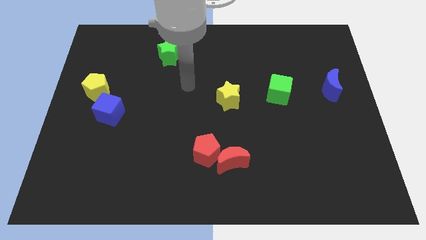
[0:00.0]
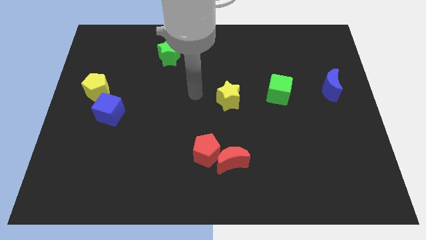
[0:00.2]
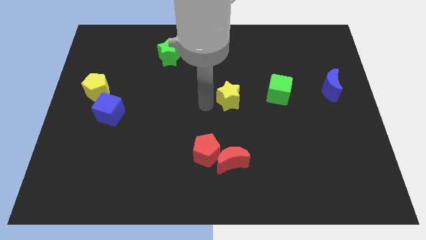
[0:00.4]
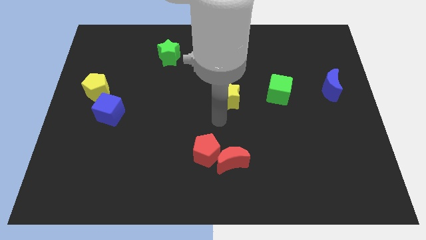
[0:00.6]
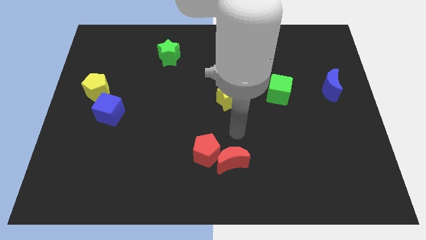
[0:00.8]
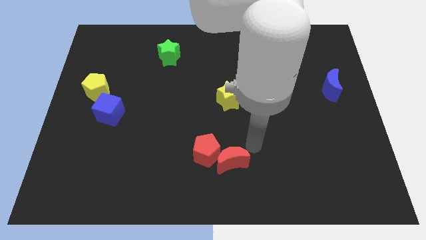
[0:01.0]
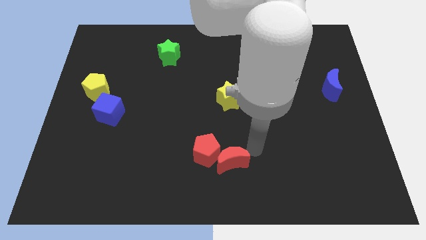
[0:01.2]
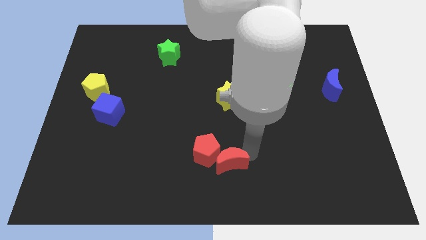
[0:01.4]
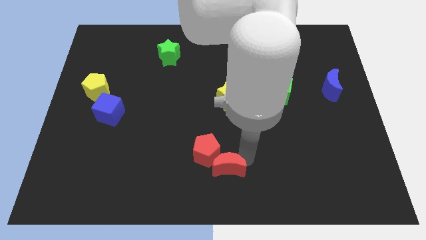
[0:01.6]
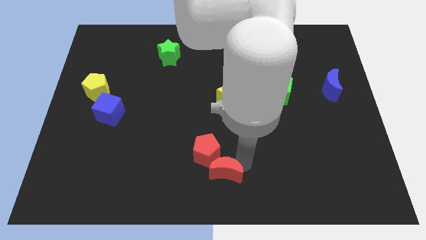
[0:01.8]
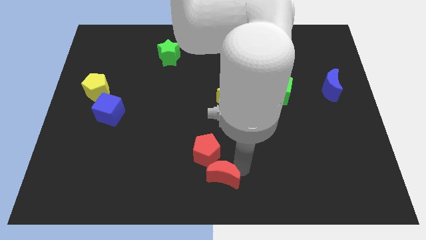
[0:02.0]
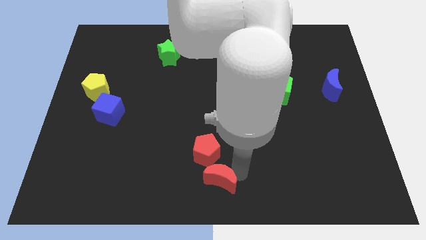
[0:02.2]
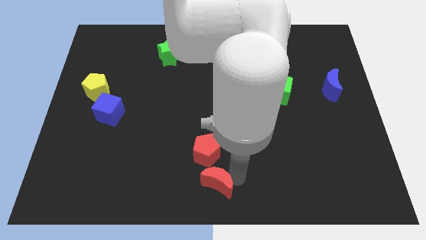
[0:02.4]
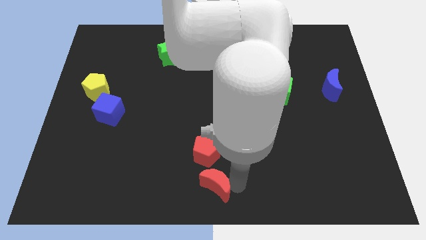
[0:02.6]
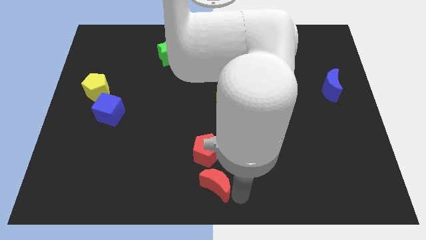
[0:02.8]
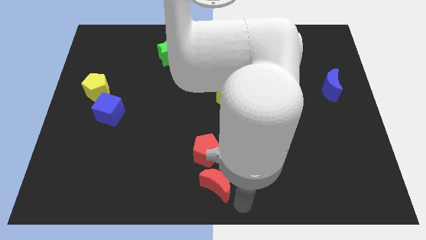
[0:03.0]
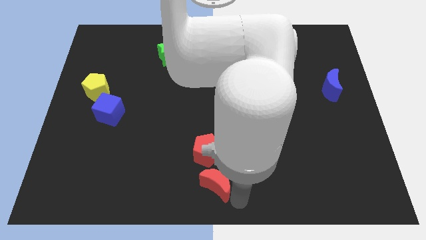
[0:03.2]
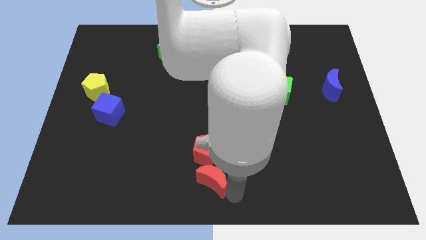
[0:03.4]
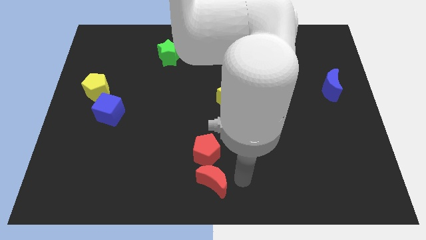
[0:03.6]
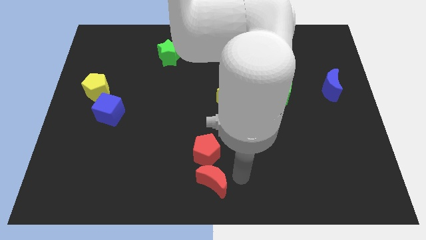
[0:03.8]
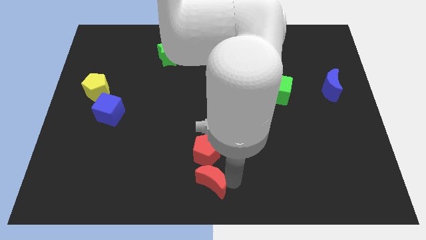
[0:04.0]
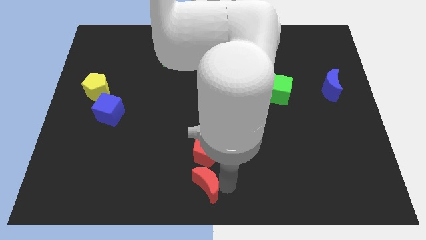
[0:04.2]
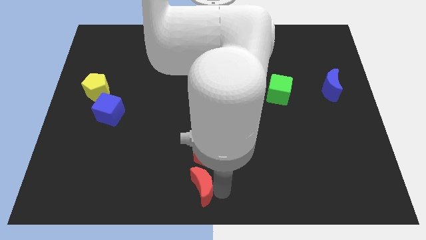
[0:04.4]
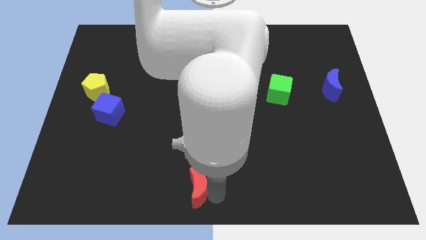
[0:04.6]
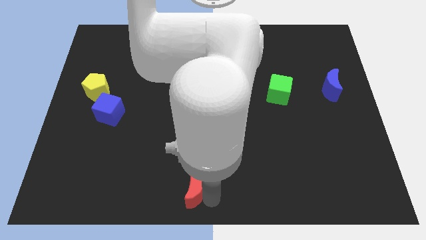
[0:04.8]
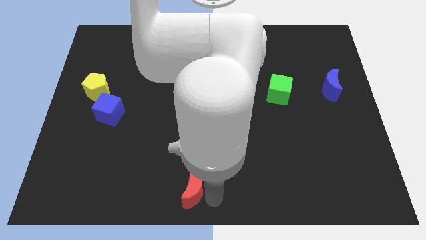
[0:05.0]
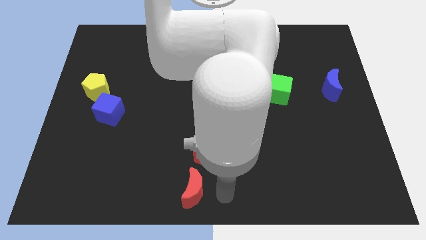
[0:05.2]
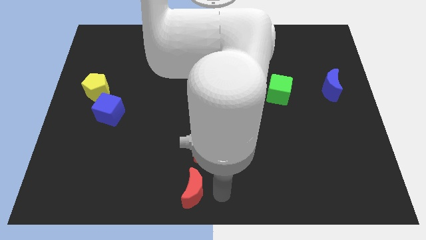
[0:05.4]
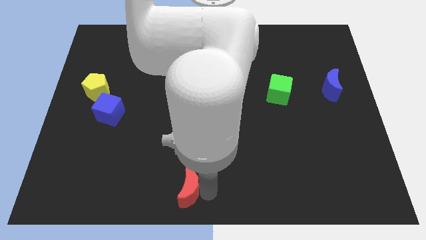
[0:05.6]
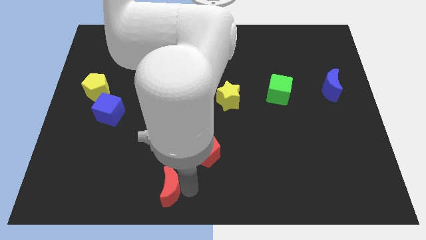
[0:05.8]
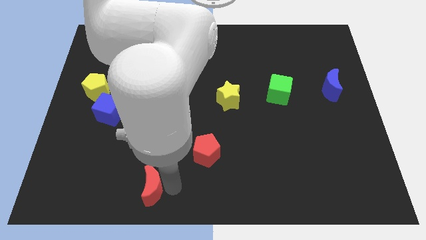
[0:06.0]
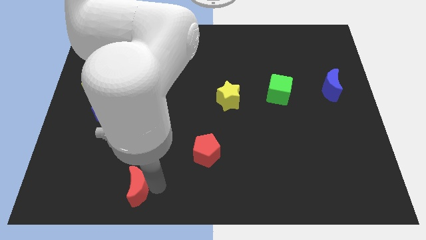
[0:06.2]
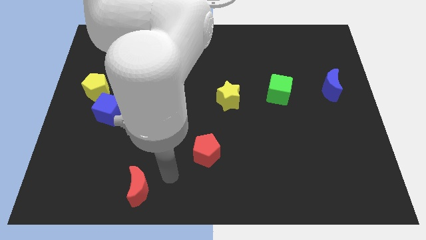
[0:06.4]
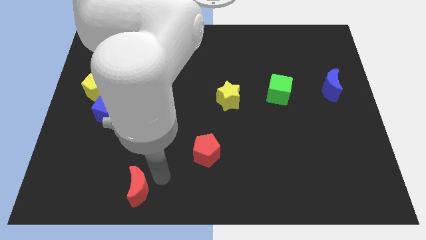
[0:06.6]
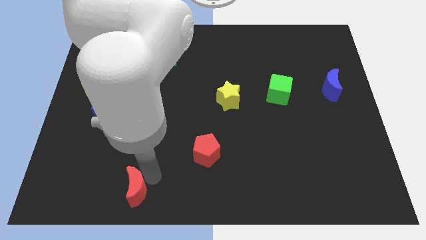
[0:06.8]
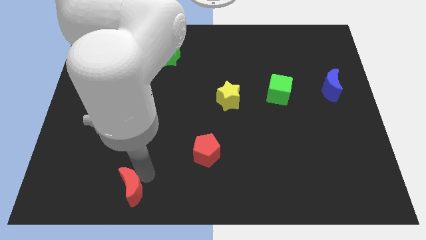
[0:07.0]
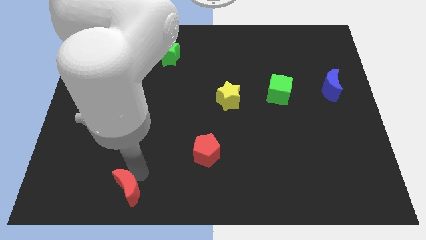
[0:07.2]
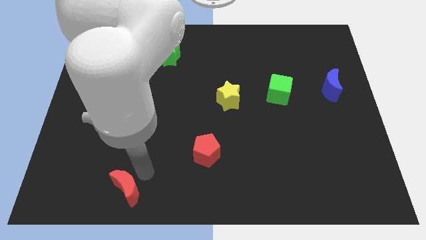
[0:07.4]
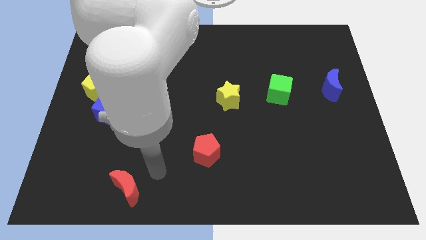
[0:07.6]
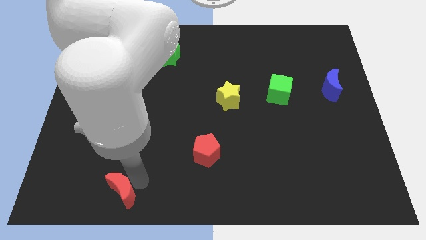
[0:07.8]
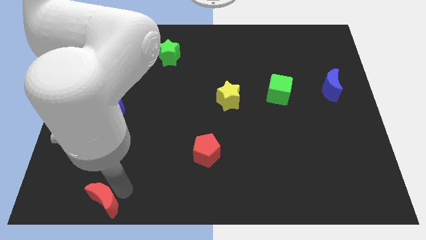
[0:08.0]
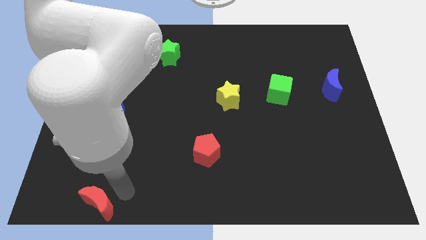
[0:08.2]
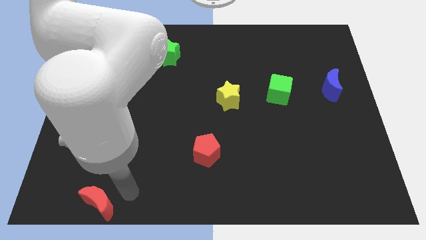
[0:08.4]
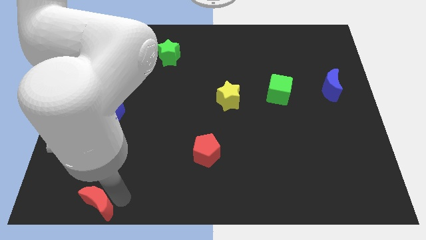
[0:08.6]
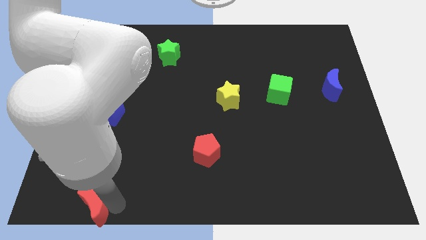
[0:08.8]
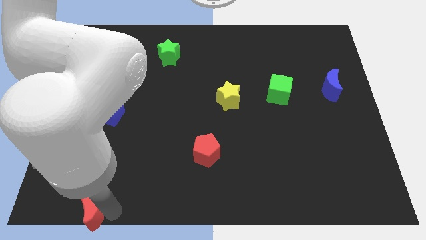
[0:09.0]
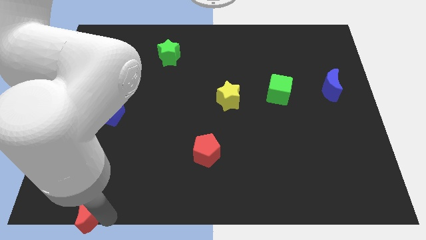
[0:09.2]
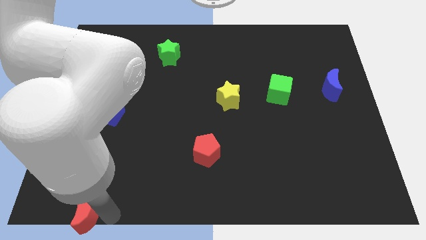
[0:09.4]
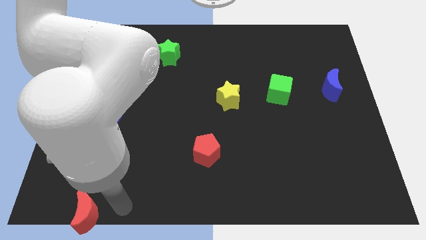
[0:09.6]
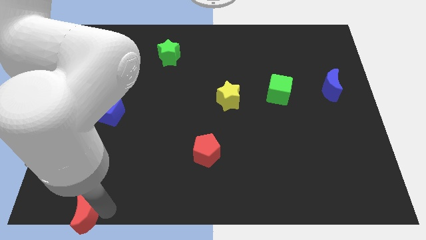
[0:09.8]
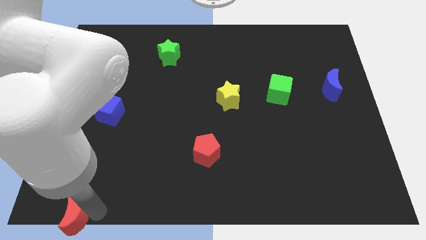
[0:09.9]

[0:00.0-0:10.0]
move the red moon to the bottom left

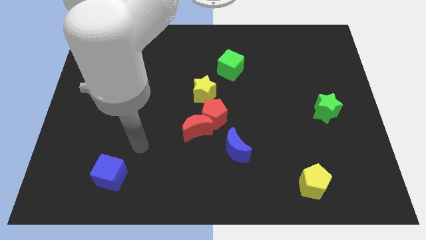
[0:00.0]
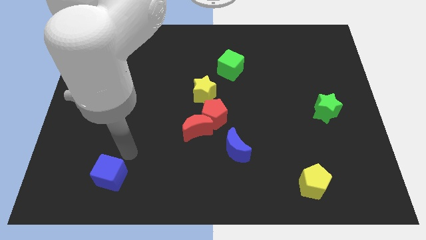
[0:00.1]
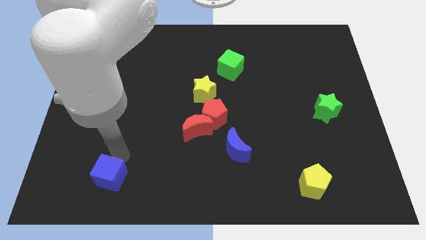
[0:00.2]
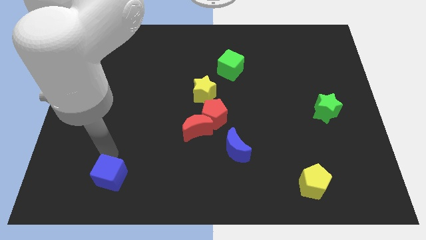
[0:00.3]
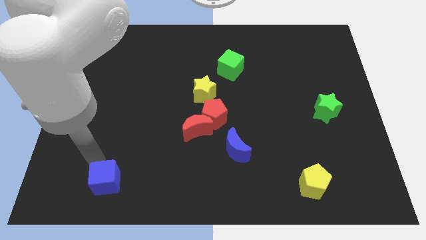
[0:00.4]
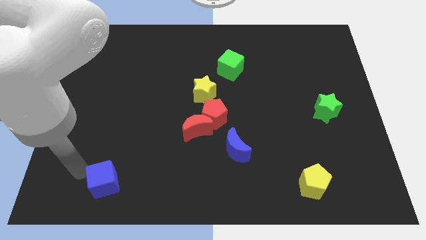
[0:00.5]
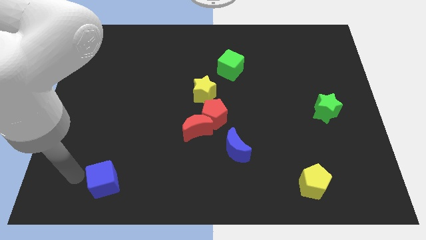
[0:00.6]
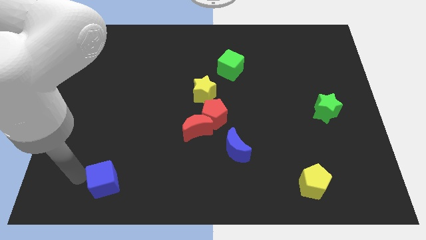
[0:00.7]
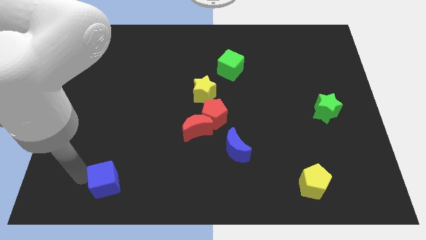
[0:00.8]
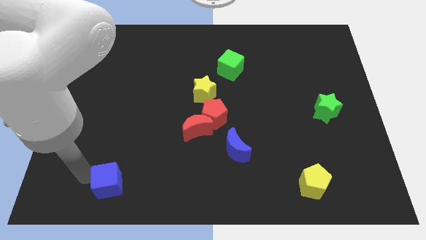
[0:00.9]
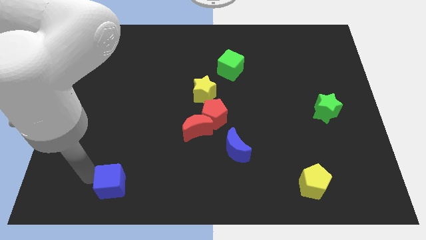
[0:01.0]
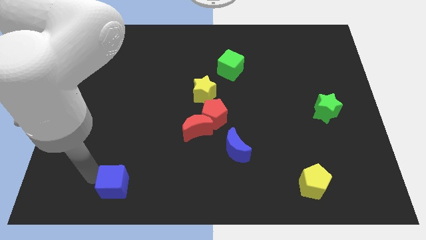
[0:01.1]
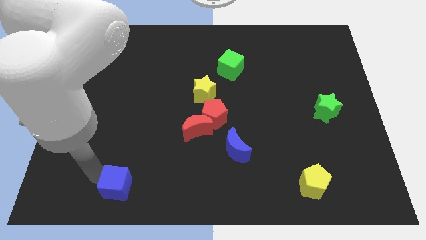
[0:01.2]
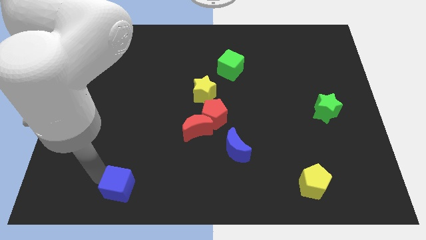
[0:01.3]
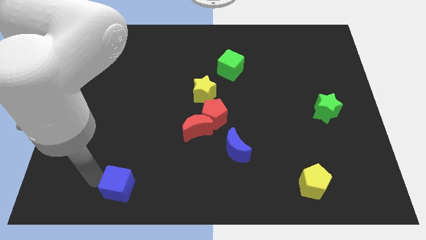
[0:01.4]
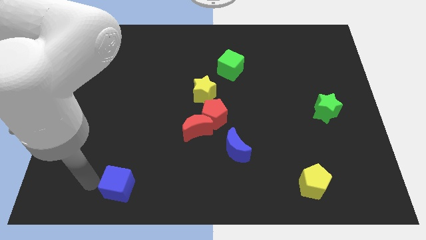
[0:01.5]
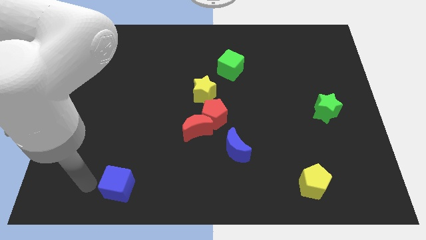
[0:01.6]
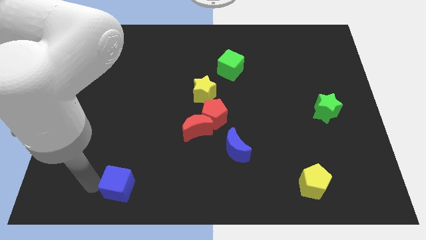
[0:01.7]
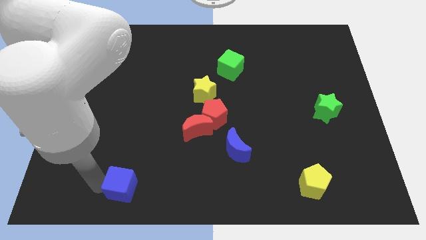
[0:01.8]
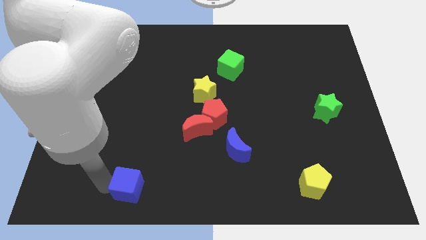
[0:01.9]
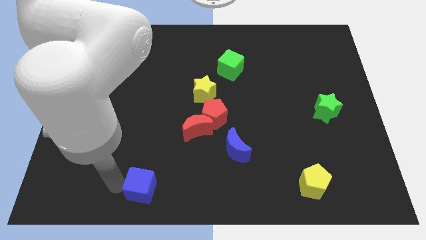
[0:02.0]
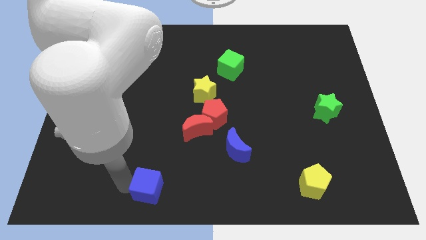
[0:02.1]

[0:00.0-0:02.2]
move the blue cube to the bottom side
